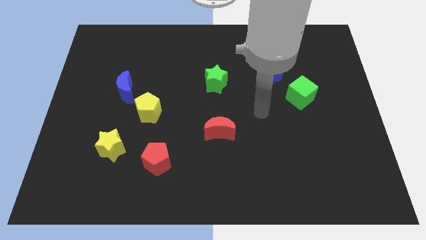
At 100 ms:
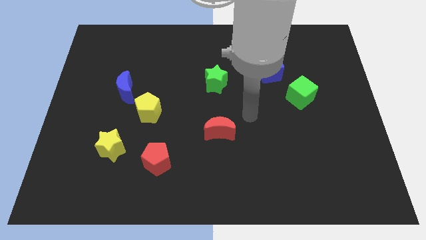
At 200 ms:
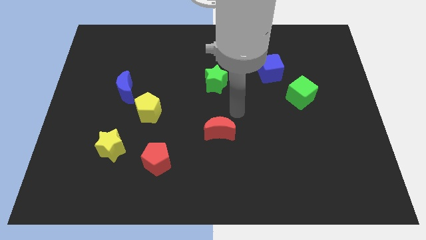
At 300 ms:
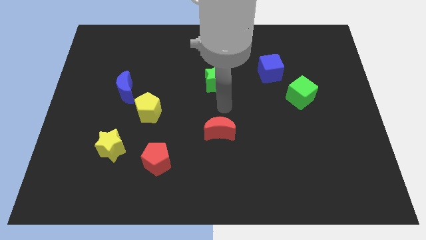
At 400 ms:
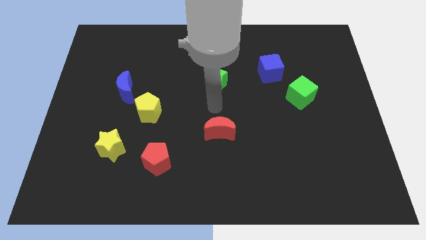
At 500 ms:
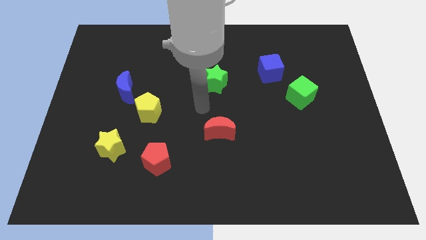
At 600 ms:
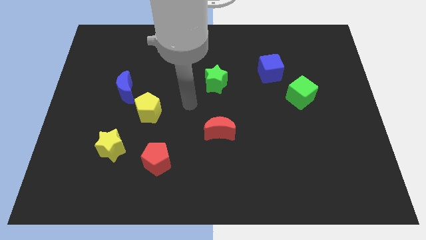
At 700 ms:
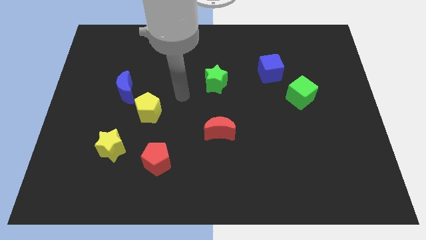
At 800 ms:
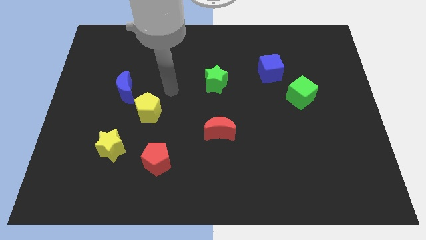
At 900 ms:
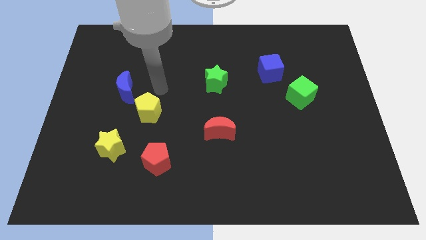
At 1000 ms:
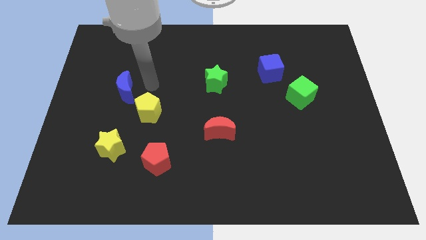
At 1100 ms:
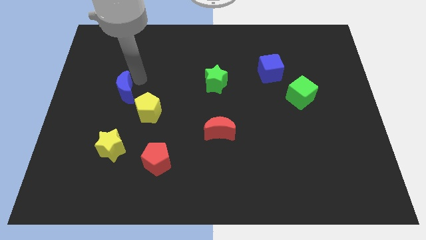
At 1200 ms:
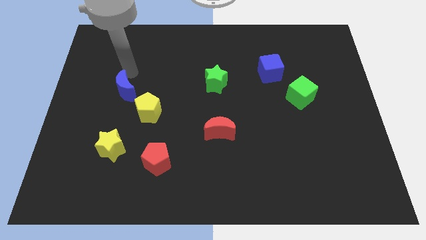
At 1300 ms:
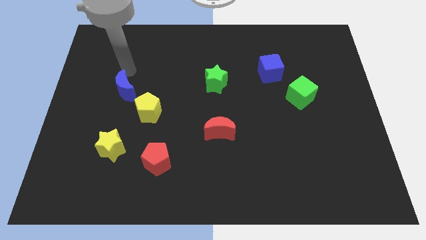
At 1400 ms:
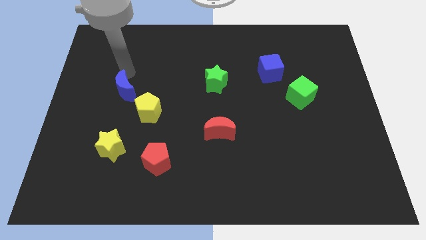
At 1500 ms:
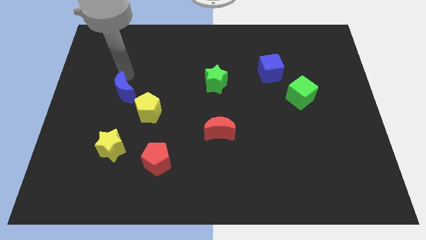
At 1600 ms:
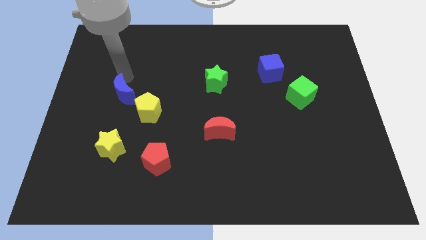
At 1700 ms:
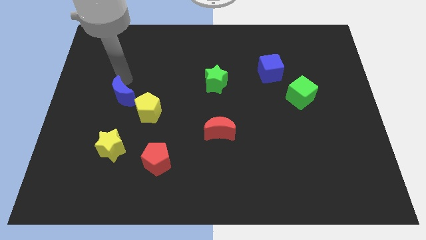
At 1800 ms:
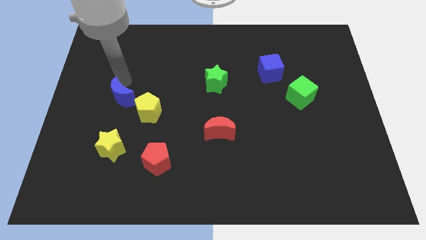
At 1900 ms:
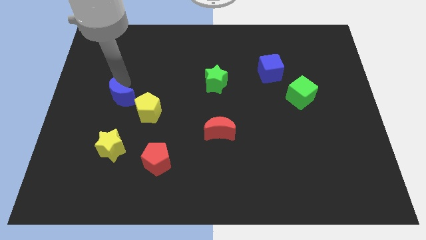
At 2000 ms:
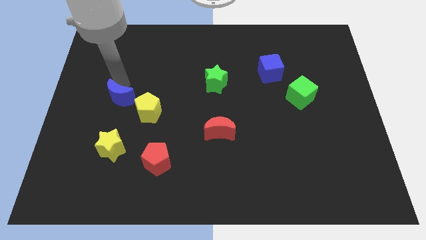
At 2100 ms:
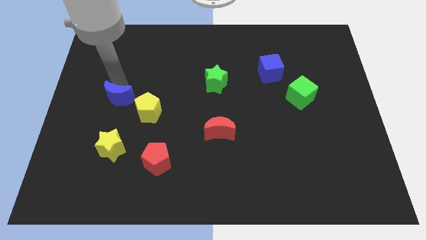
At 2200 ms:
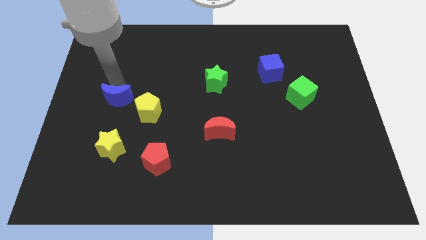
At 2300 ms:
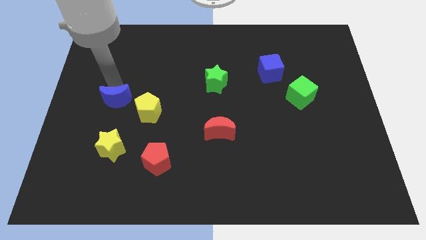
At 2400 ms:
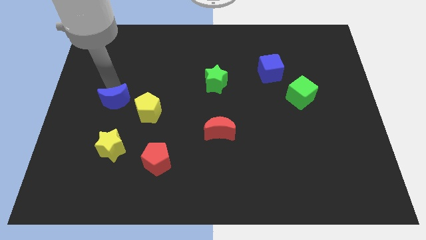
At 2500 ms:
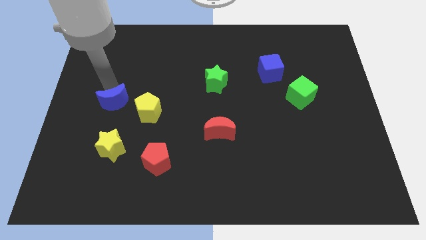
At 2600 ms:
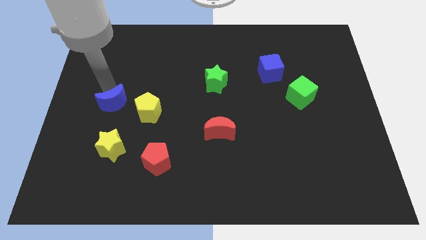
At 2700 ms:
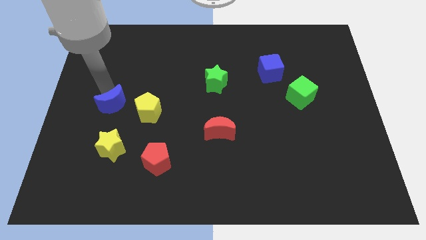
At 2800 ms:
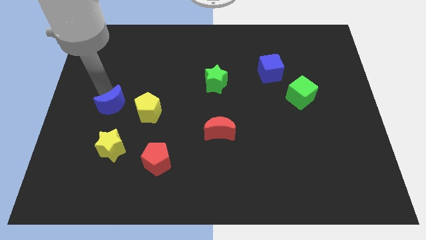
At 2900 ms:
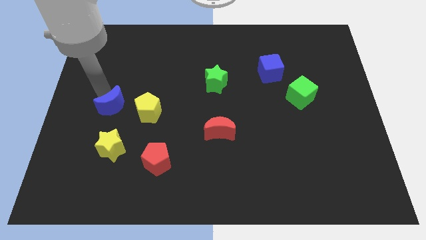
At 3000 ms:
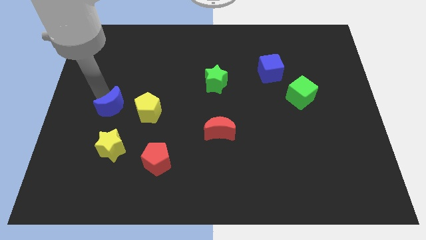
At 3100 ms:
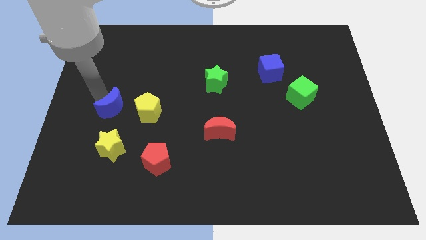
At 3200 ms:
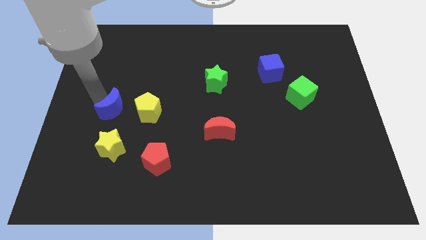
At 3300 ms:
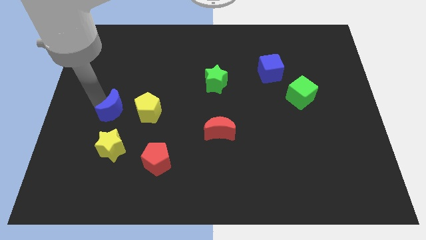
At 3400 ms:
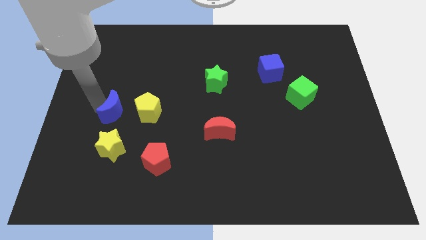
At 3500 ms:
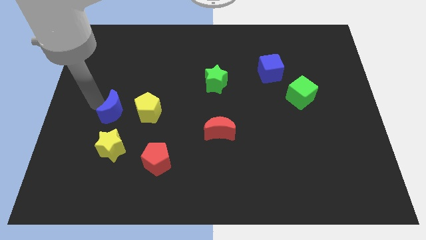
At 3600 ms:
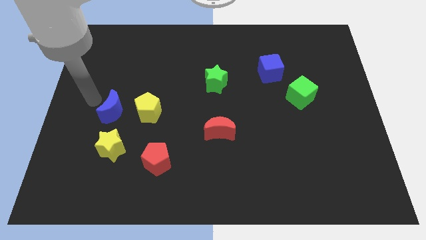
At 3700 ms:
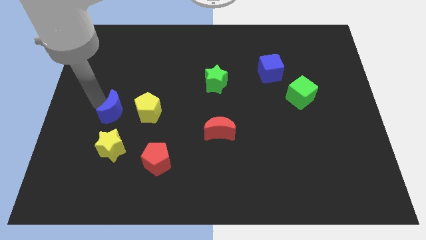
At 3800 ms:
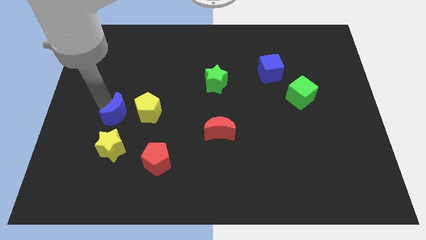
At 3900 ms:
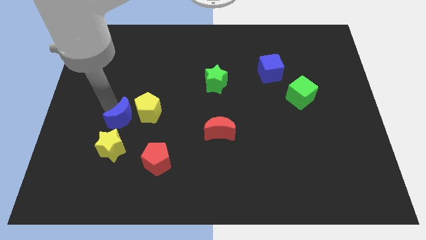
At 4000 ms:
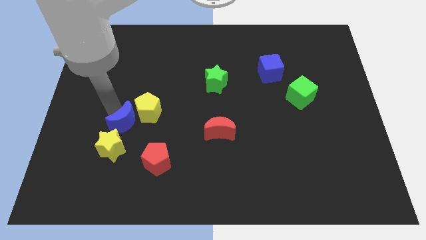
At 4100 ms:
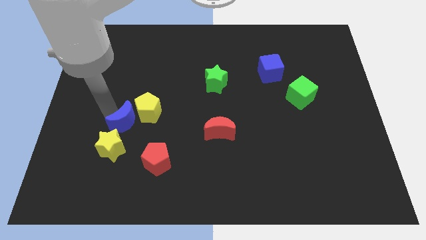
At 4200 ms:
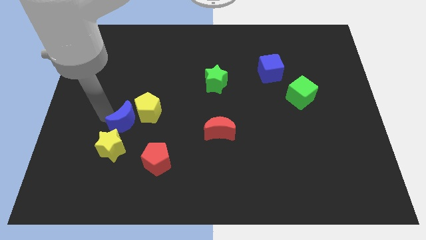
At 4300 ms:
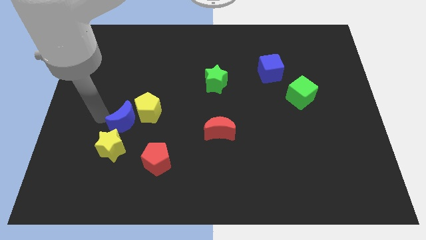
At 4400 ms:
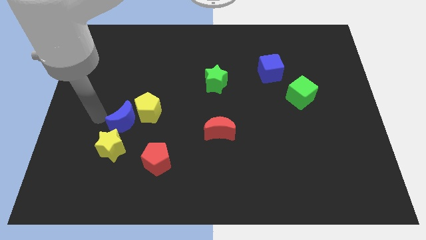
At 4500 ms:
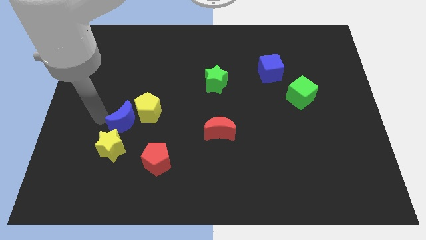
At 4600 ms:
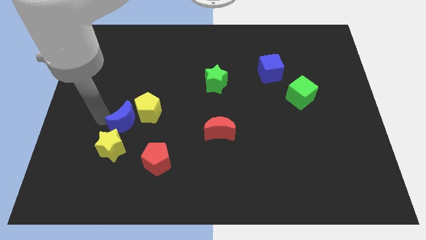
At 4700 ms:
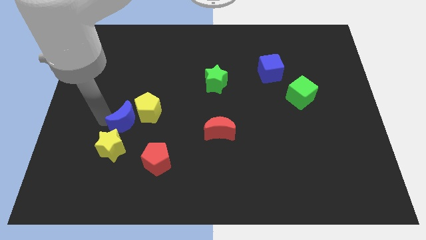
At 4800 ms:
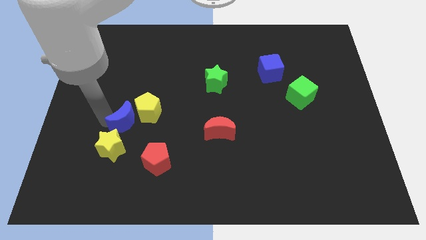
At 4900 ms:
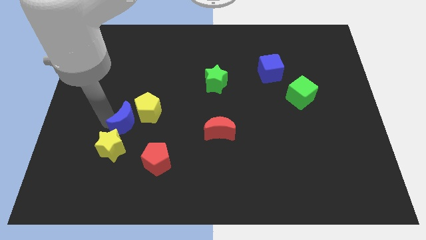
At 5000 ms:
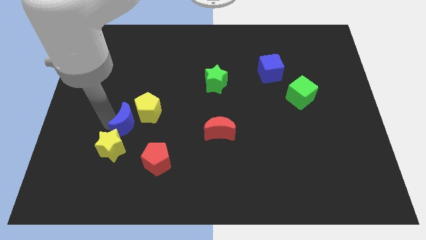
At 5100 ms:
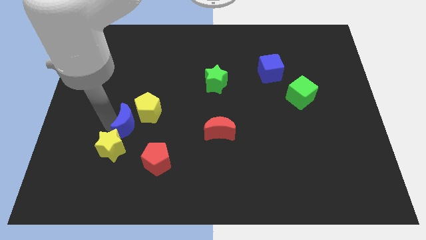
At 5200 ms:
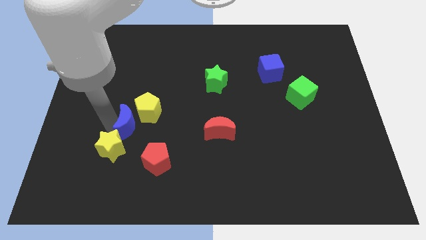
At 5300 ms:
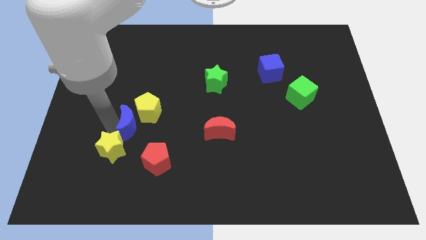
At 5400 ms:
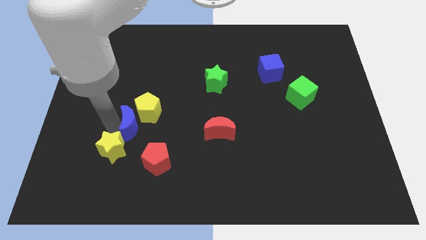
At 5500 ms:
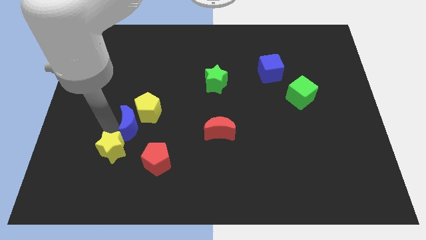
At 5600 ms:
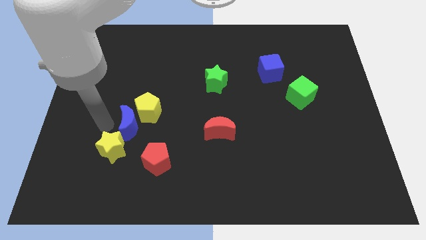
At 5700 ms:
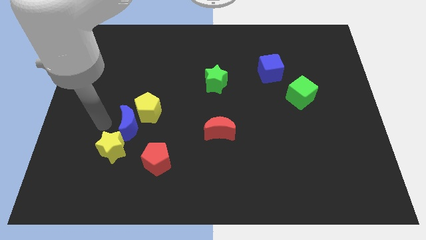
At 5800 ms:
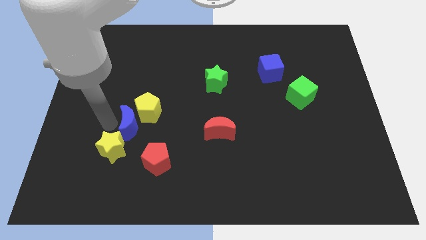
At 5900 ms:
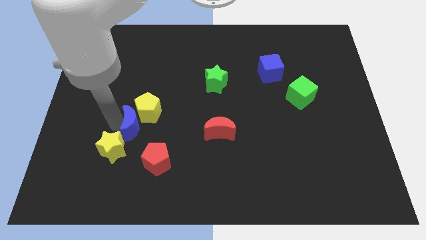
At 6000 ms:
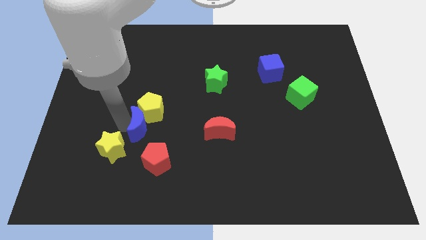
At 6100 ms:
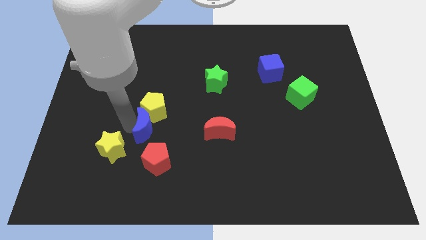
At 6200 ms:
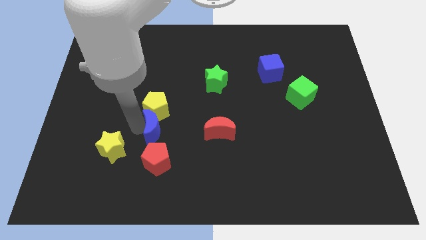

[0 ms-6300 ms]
move the blue moon diagonally down and to the right of the yellow pentagon

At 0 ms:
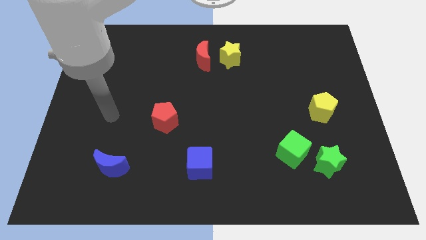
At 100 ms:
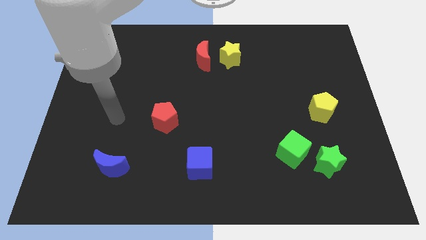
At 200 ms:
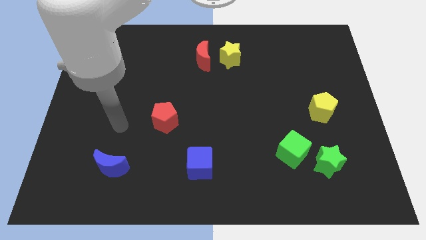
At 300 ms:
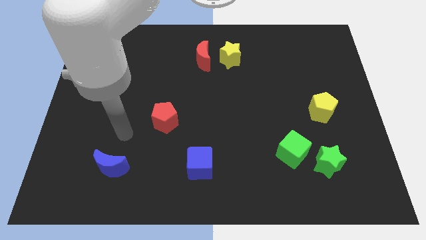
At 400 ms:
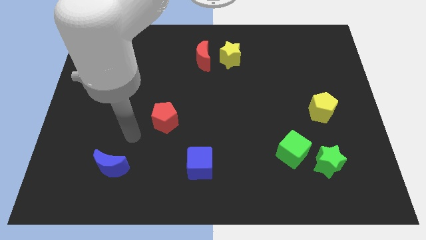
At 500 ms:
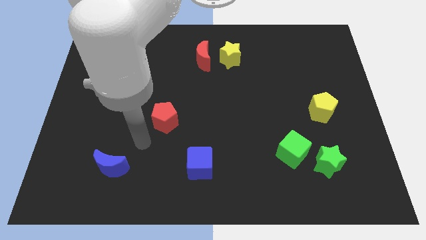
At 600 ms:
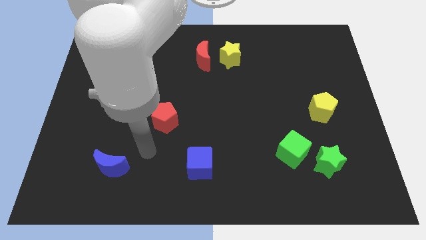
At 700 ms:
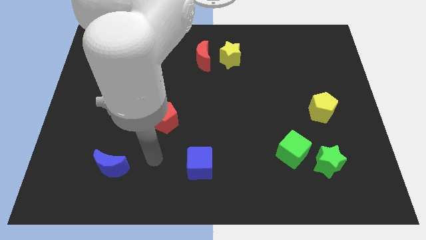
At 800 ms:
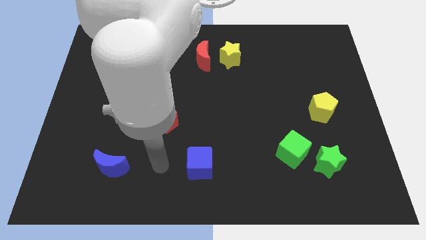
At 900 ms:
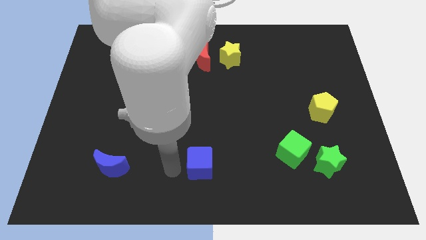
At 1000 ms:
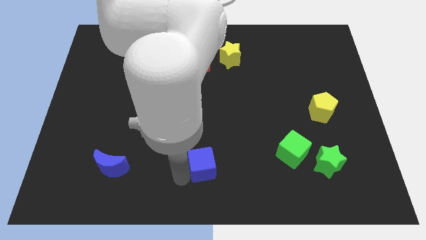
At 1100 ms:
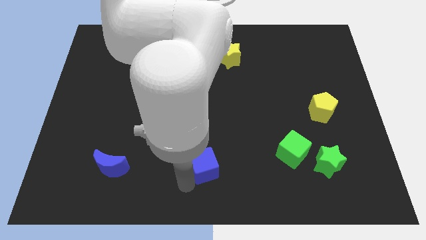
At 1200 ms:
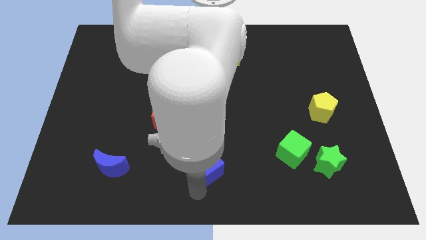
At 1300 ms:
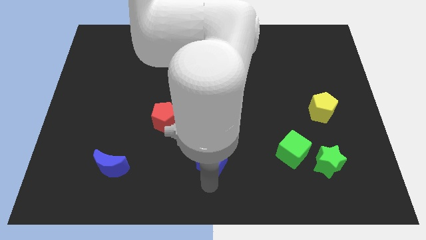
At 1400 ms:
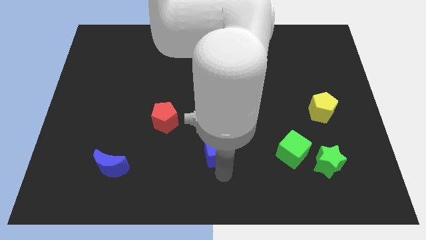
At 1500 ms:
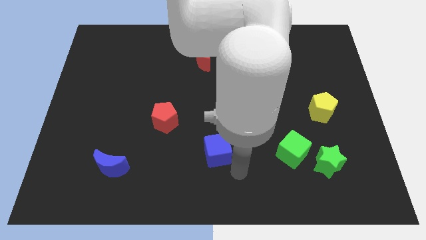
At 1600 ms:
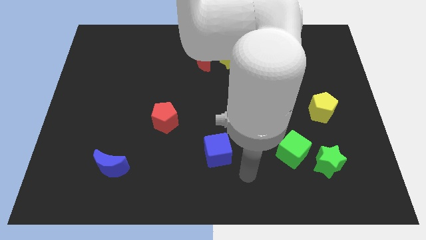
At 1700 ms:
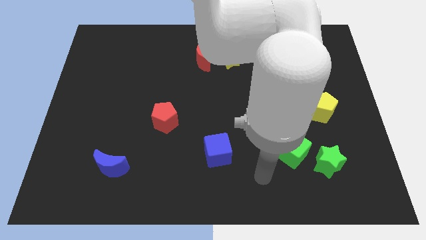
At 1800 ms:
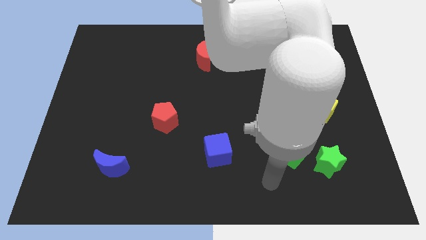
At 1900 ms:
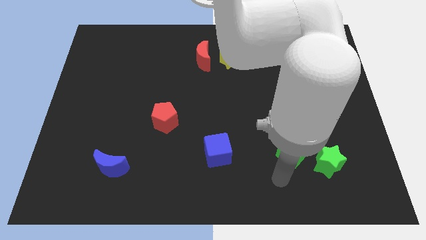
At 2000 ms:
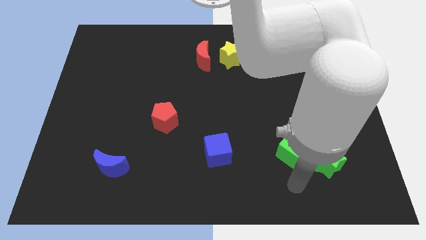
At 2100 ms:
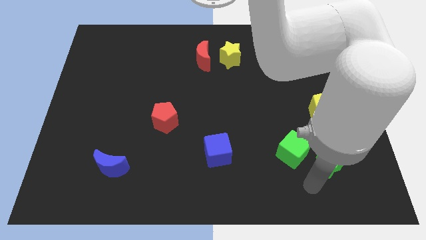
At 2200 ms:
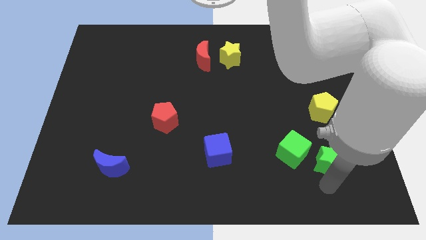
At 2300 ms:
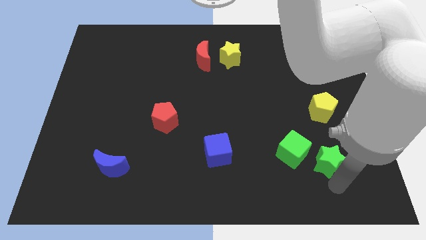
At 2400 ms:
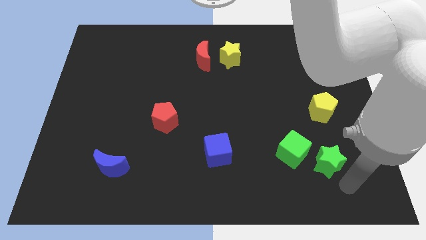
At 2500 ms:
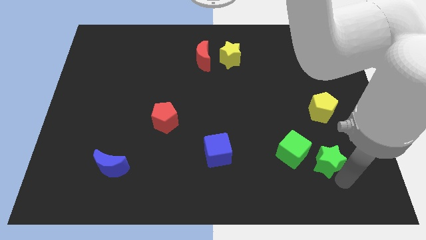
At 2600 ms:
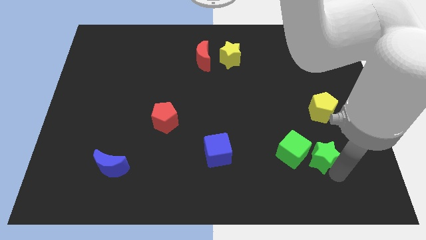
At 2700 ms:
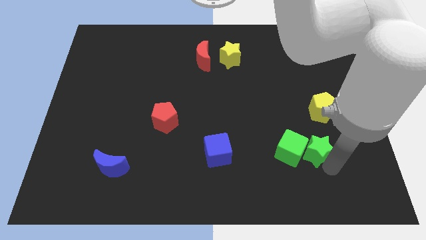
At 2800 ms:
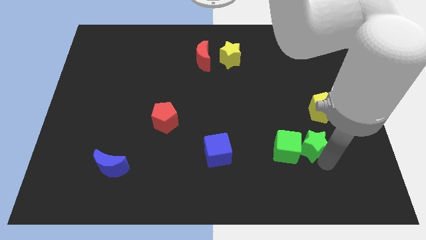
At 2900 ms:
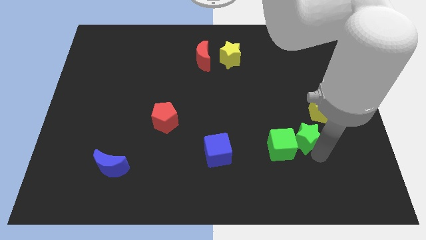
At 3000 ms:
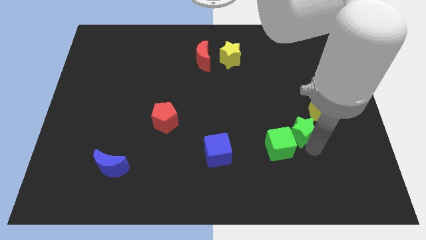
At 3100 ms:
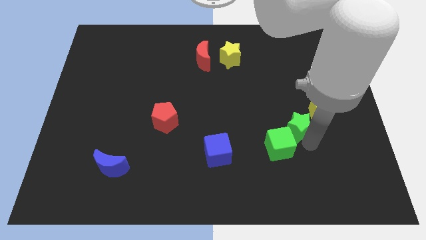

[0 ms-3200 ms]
slide the green star to the left side of the yellow pentagon
